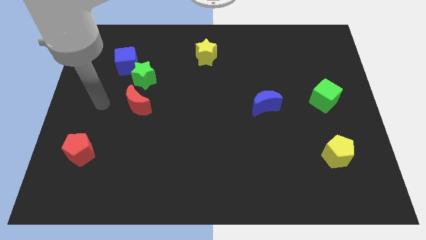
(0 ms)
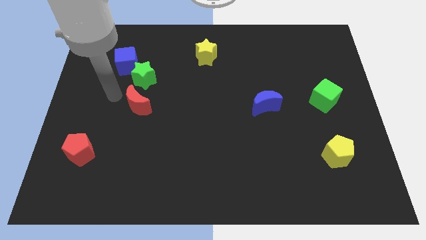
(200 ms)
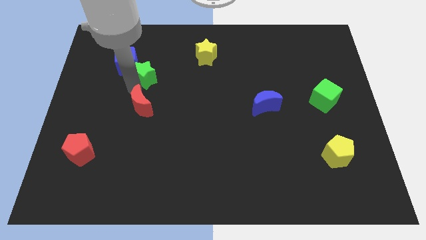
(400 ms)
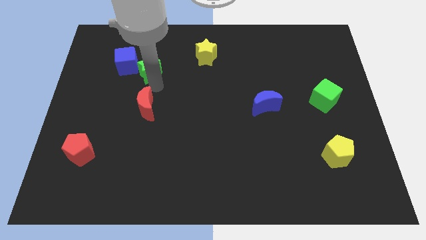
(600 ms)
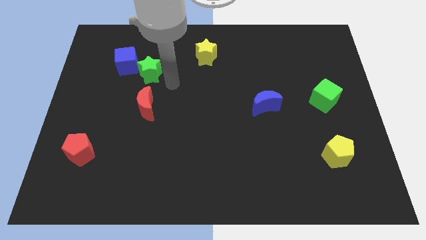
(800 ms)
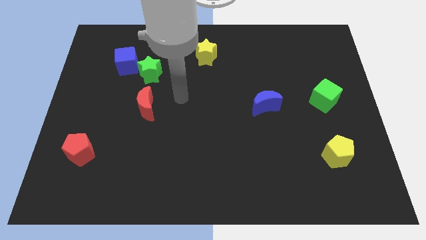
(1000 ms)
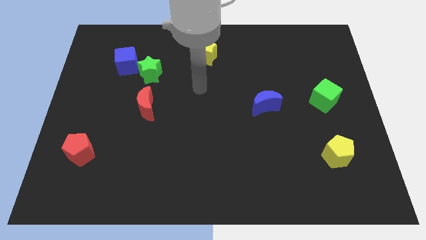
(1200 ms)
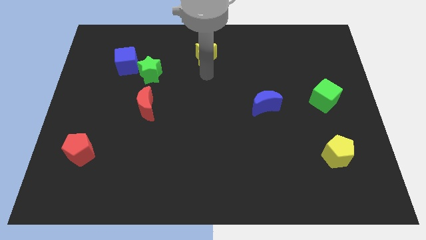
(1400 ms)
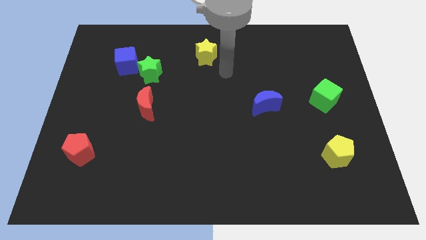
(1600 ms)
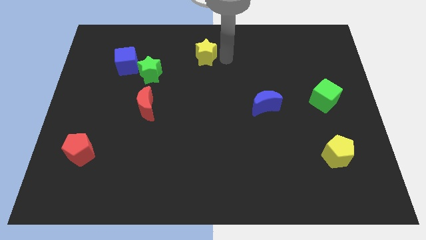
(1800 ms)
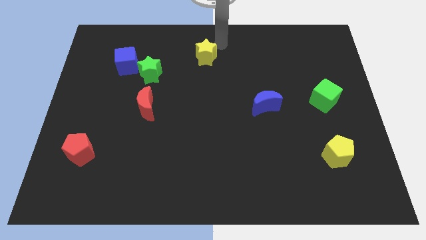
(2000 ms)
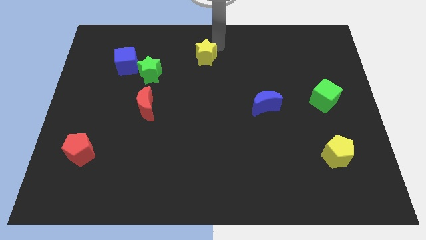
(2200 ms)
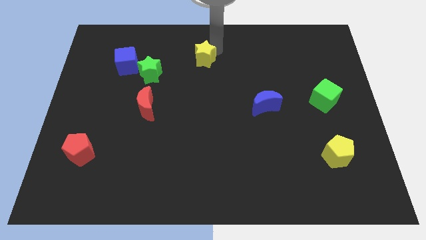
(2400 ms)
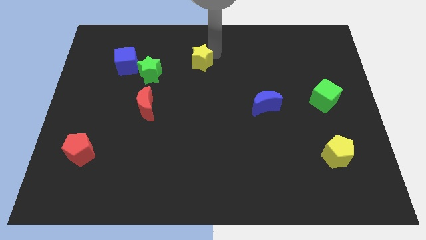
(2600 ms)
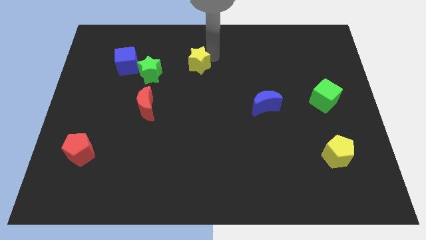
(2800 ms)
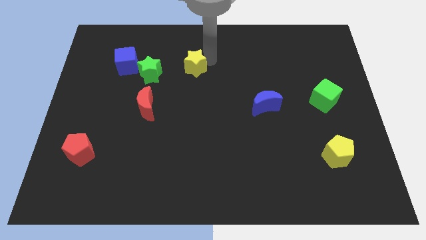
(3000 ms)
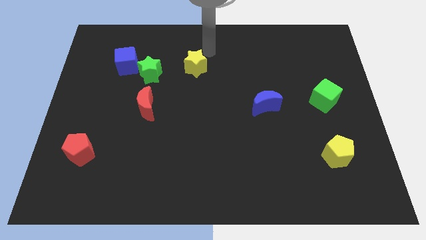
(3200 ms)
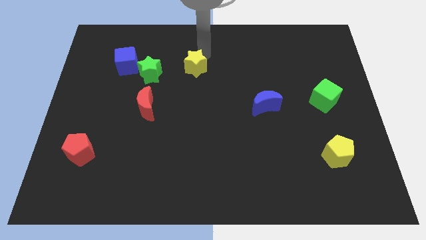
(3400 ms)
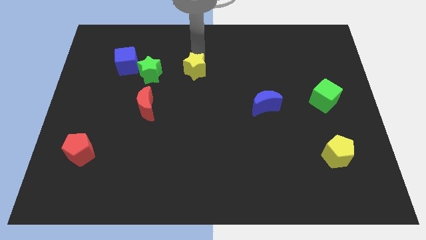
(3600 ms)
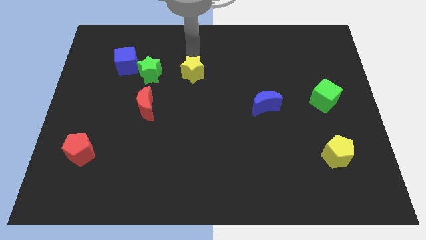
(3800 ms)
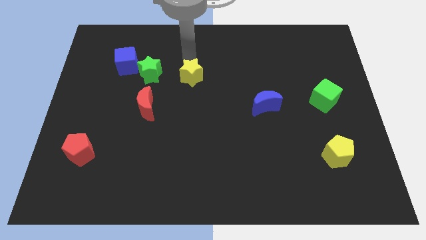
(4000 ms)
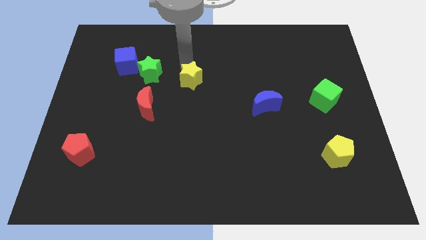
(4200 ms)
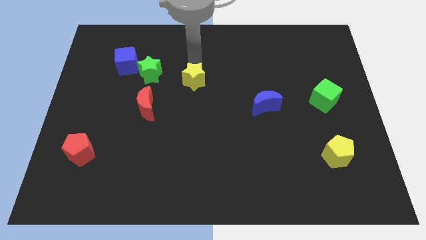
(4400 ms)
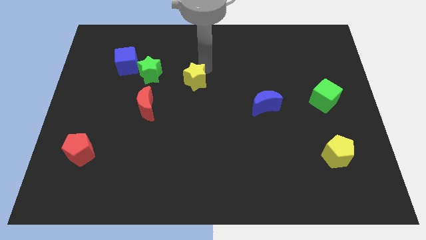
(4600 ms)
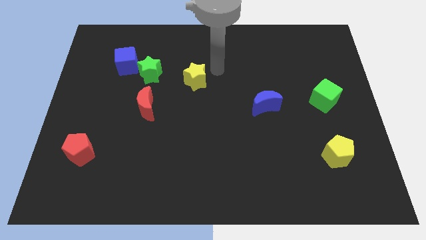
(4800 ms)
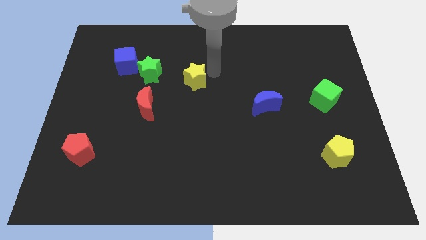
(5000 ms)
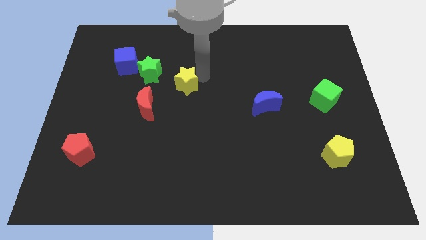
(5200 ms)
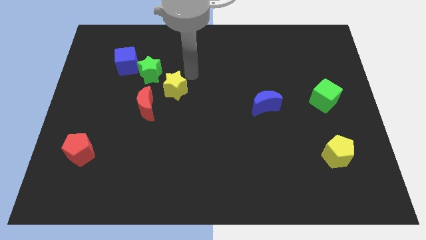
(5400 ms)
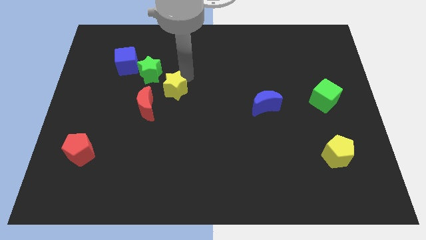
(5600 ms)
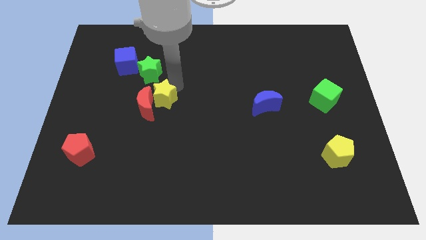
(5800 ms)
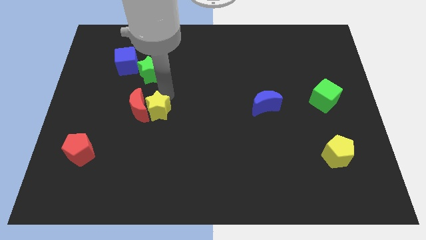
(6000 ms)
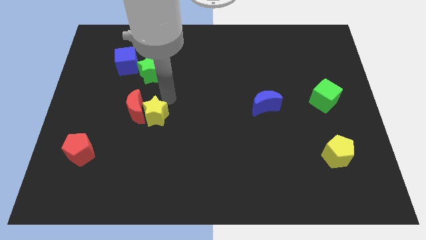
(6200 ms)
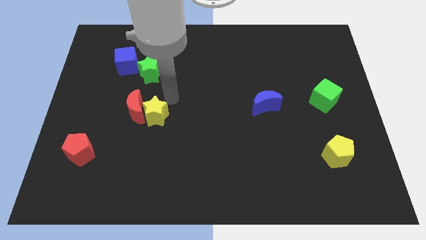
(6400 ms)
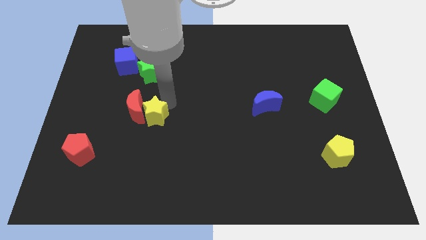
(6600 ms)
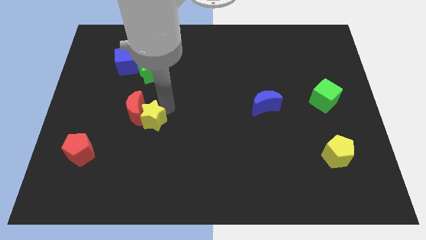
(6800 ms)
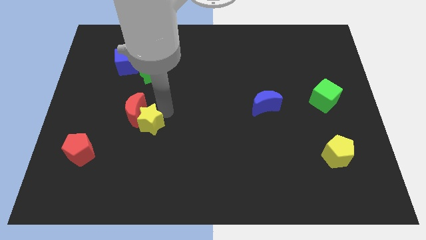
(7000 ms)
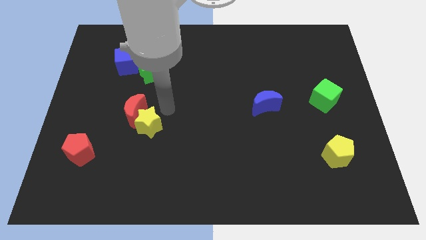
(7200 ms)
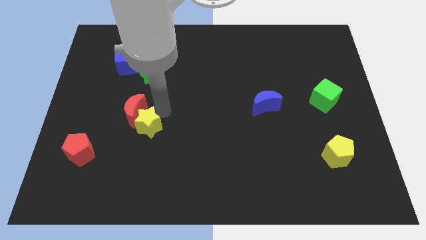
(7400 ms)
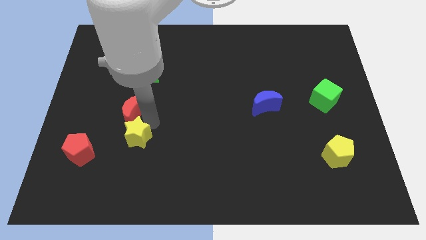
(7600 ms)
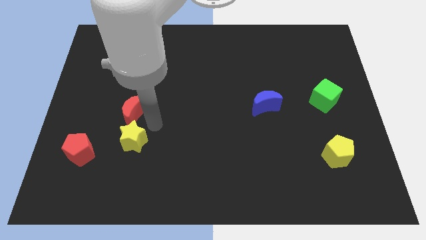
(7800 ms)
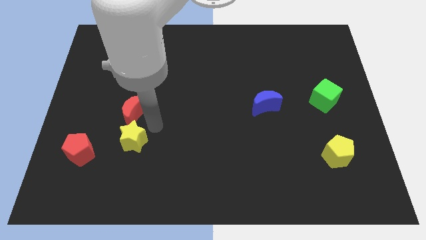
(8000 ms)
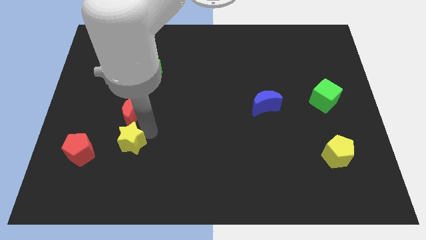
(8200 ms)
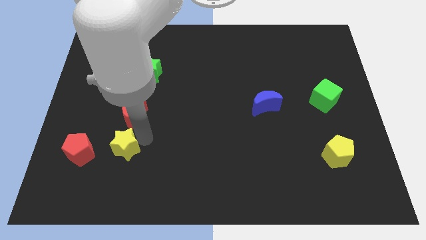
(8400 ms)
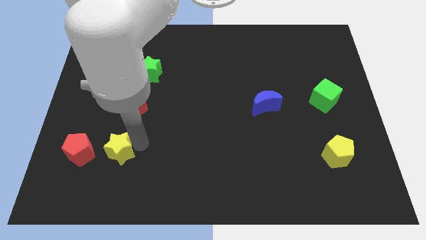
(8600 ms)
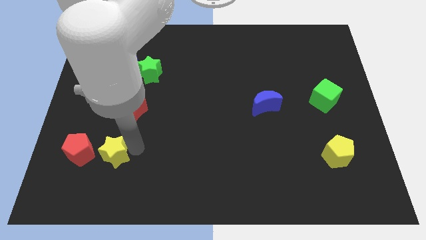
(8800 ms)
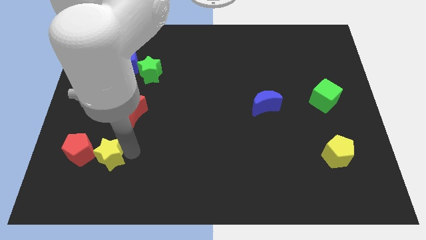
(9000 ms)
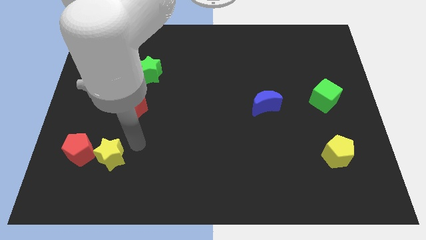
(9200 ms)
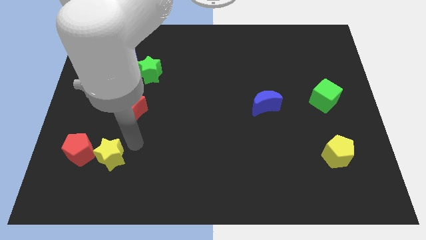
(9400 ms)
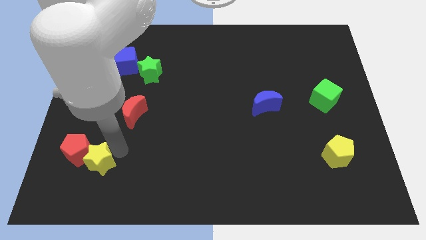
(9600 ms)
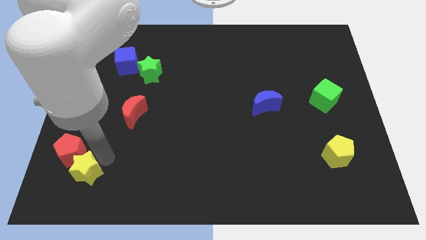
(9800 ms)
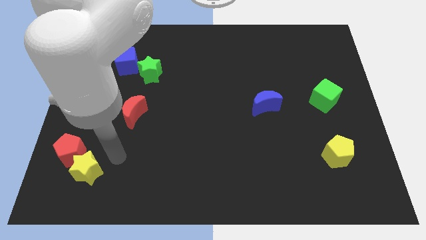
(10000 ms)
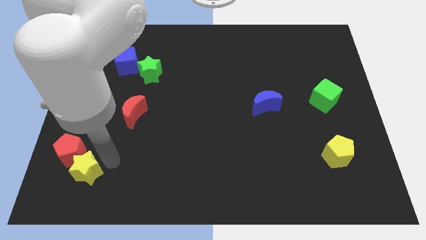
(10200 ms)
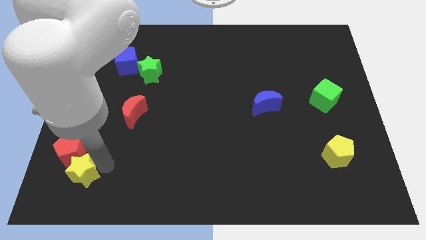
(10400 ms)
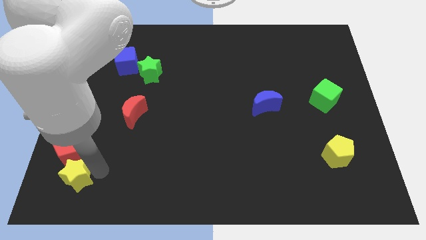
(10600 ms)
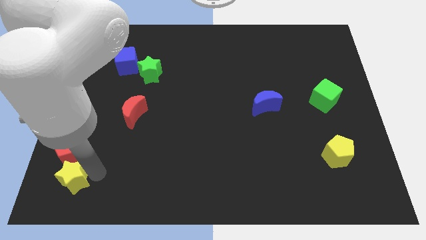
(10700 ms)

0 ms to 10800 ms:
push the yellow star to the bottom left
